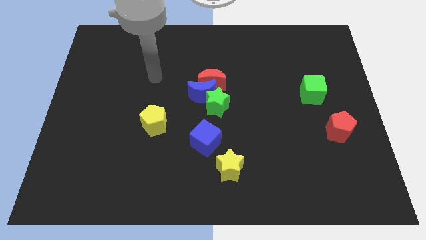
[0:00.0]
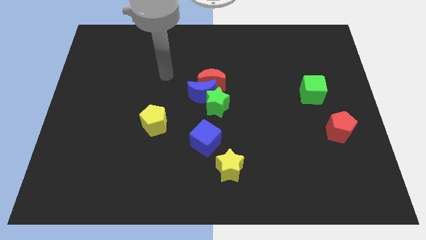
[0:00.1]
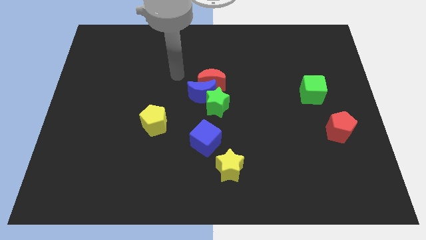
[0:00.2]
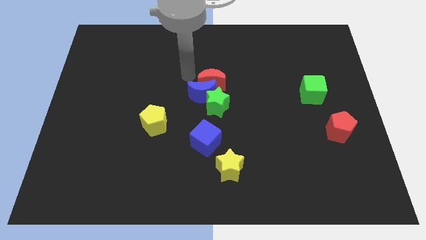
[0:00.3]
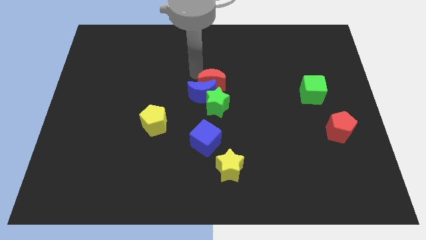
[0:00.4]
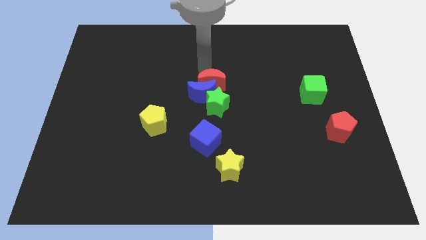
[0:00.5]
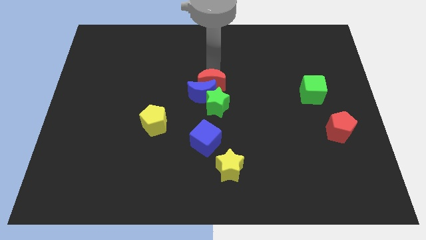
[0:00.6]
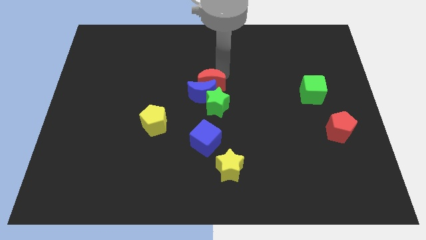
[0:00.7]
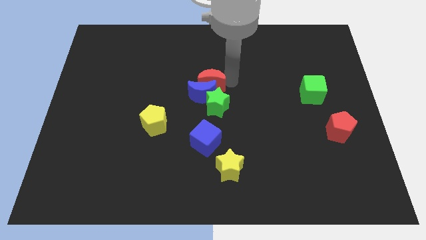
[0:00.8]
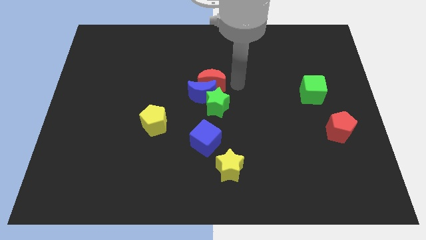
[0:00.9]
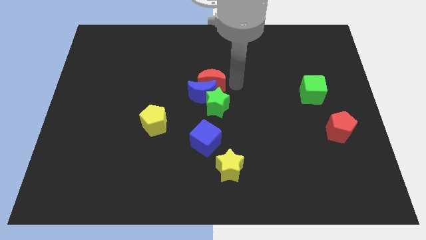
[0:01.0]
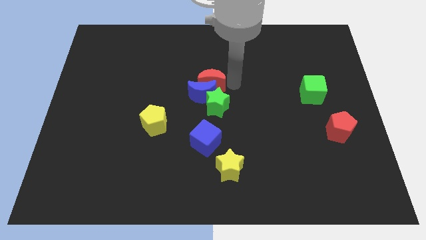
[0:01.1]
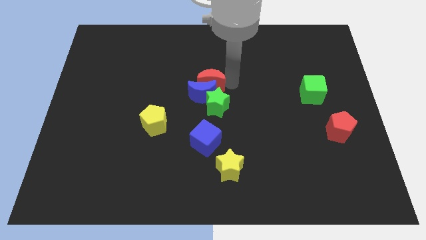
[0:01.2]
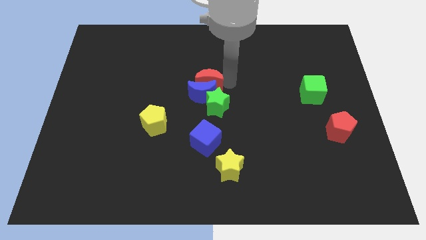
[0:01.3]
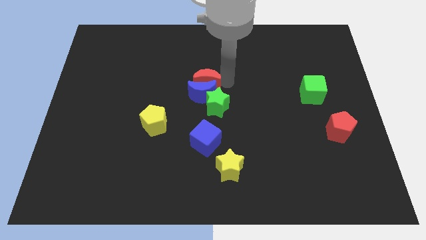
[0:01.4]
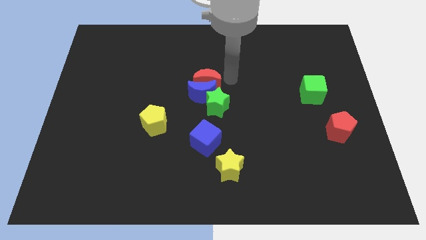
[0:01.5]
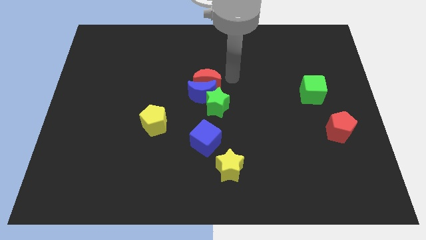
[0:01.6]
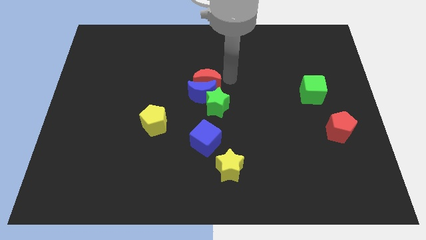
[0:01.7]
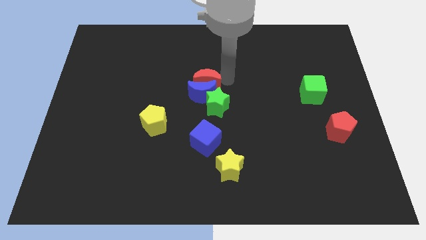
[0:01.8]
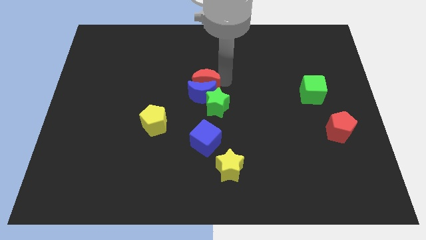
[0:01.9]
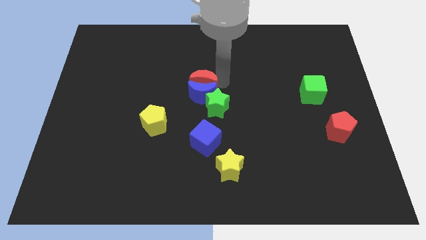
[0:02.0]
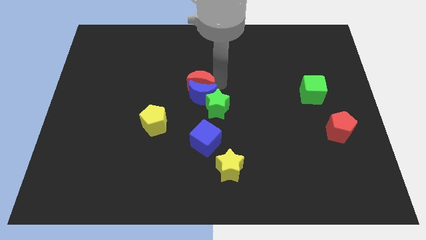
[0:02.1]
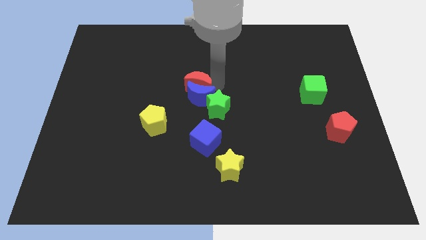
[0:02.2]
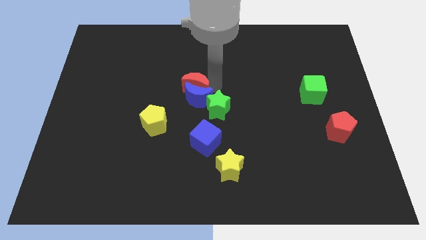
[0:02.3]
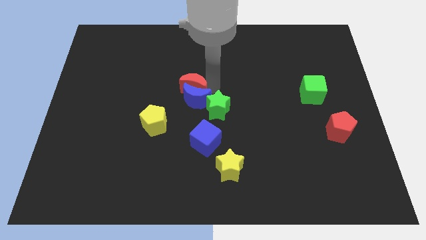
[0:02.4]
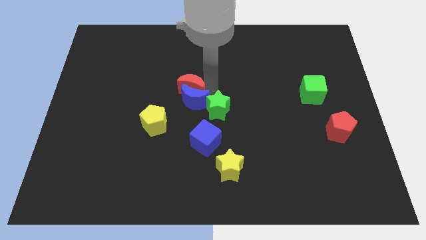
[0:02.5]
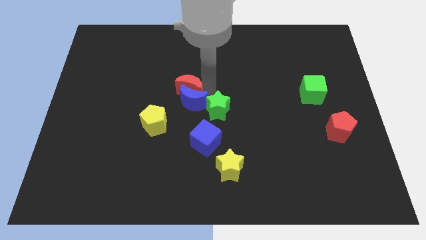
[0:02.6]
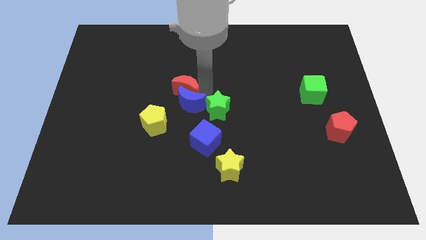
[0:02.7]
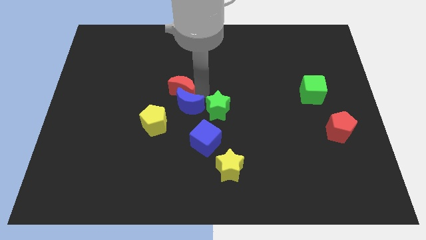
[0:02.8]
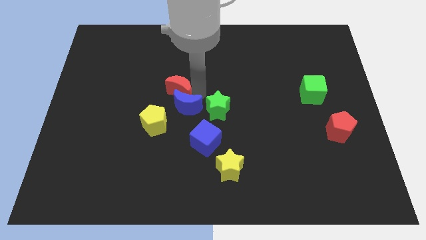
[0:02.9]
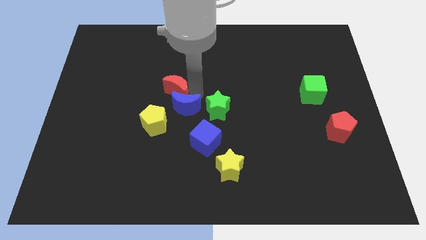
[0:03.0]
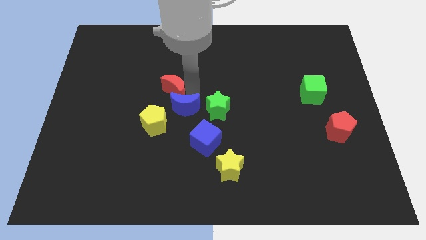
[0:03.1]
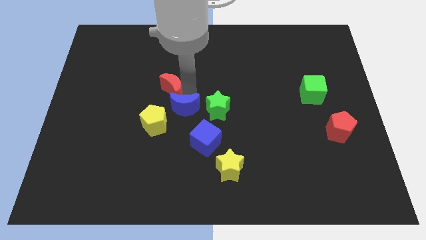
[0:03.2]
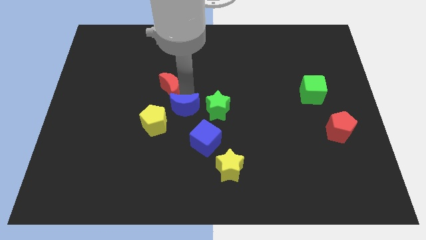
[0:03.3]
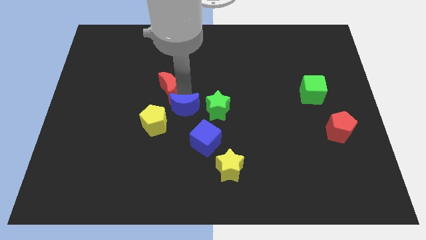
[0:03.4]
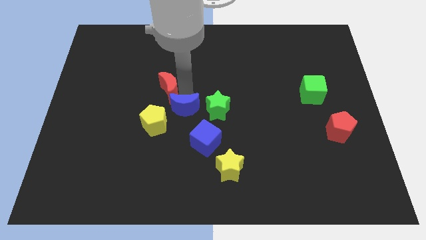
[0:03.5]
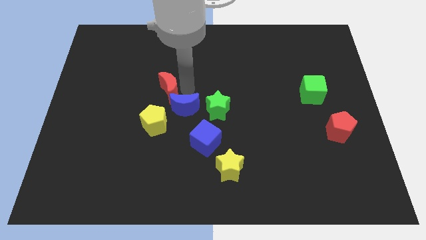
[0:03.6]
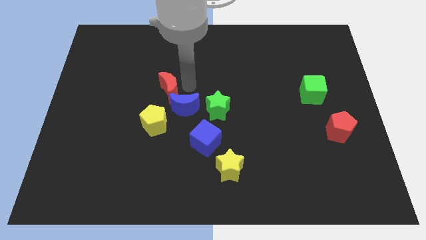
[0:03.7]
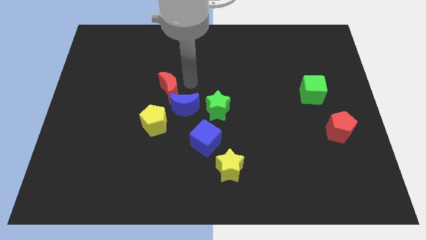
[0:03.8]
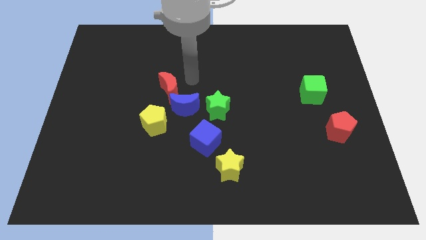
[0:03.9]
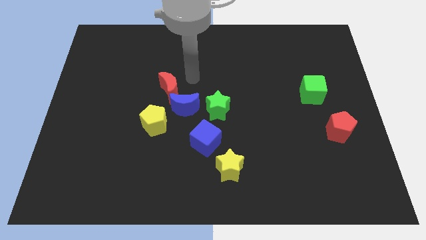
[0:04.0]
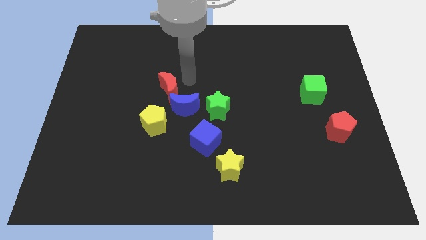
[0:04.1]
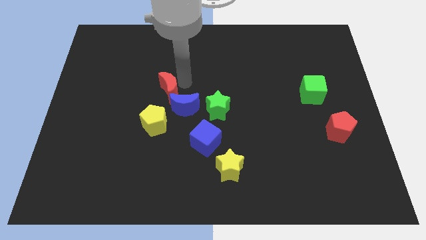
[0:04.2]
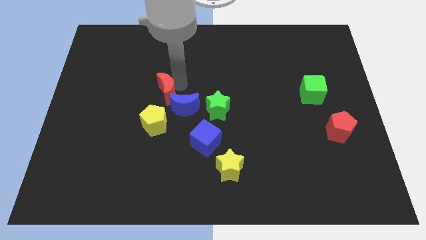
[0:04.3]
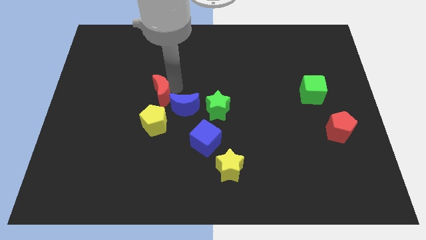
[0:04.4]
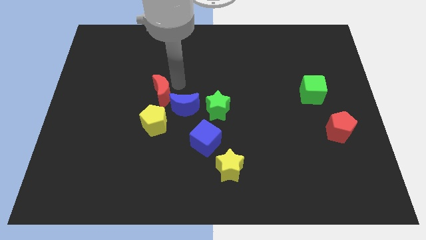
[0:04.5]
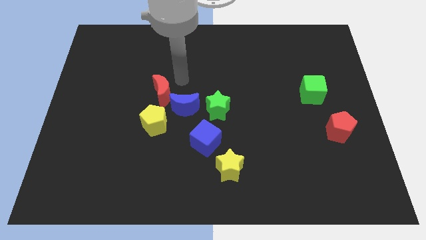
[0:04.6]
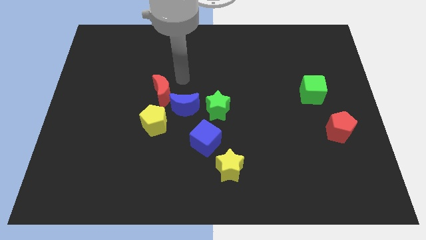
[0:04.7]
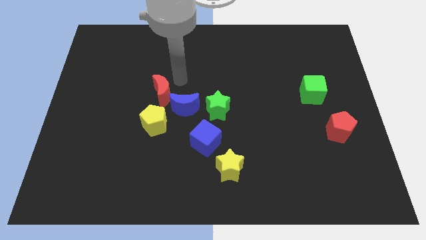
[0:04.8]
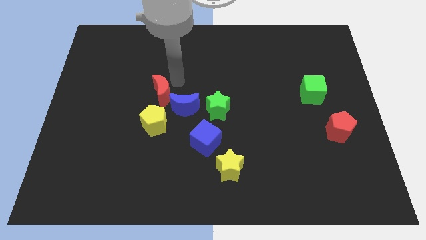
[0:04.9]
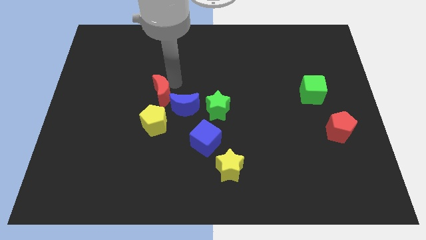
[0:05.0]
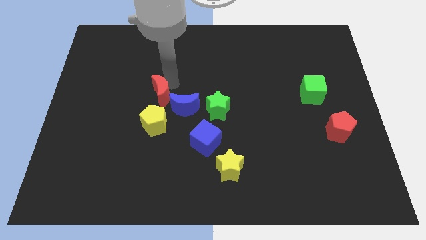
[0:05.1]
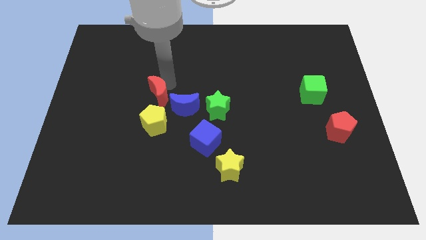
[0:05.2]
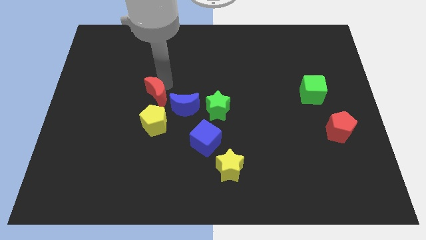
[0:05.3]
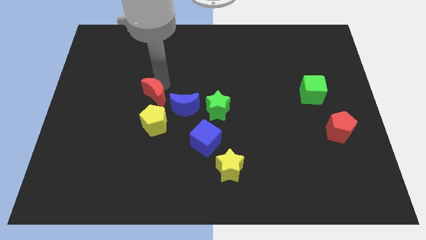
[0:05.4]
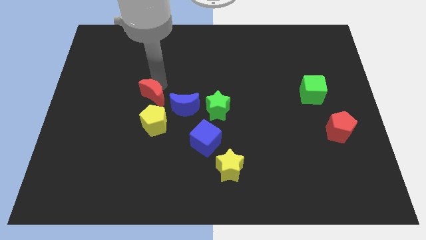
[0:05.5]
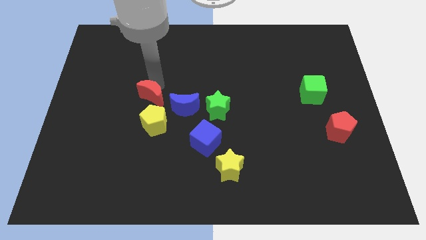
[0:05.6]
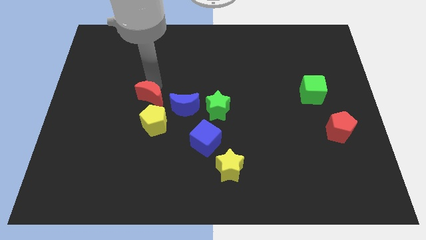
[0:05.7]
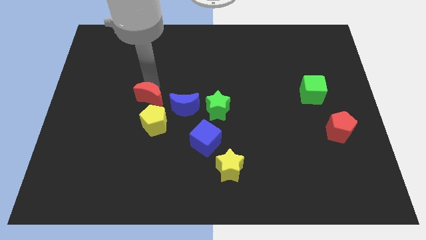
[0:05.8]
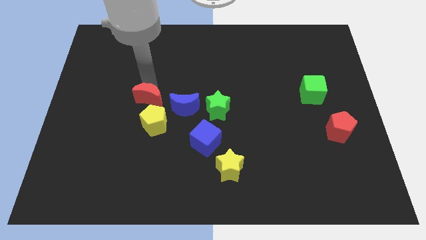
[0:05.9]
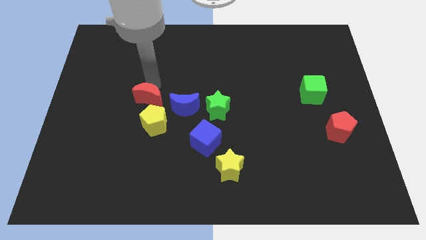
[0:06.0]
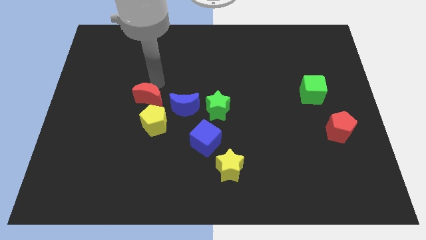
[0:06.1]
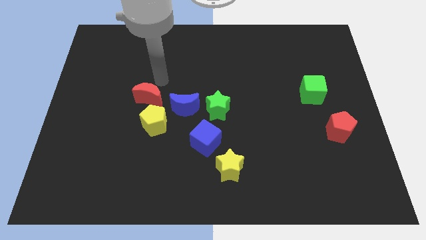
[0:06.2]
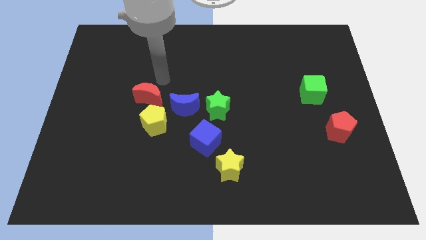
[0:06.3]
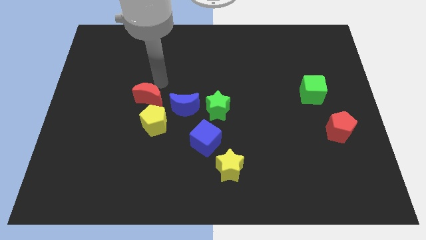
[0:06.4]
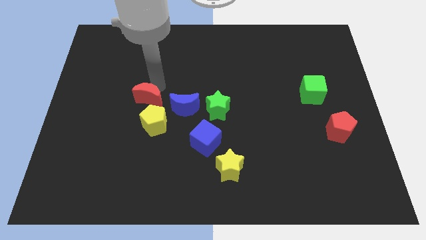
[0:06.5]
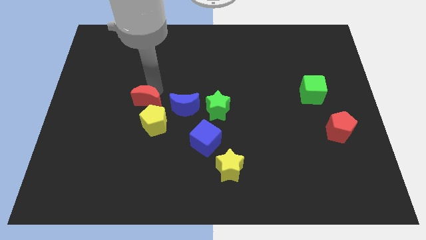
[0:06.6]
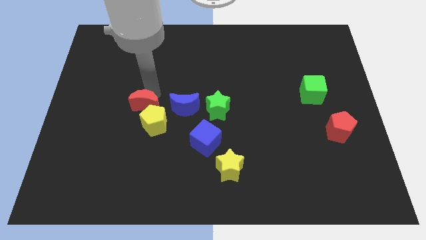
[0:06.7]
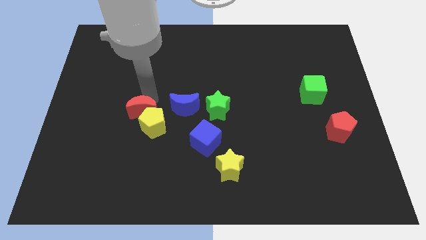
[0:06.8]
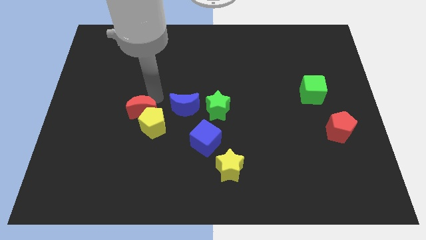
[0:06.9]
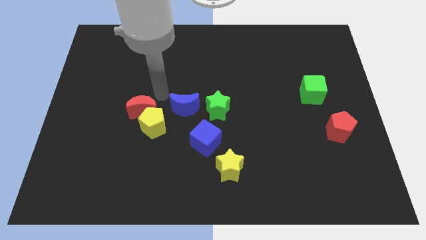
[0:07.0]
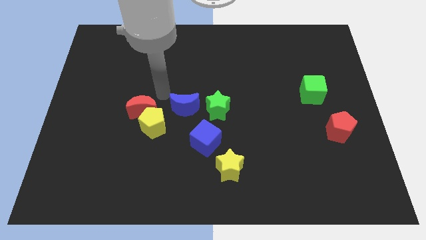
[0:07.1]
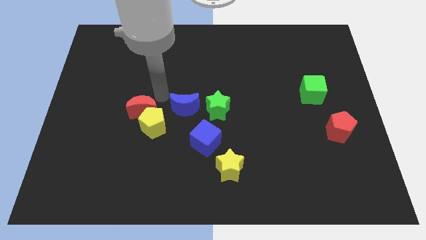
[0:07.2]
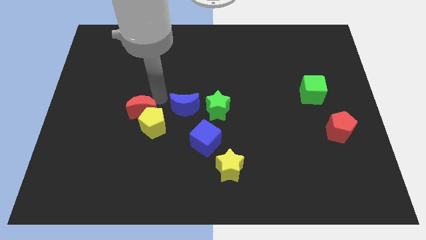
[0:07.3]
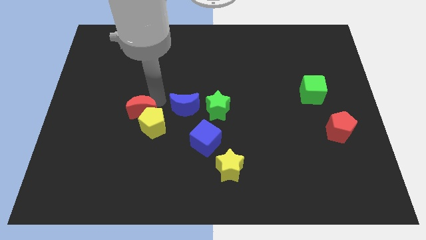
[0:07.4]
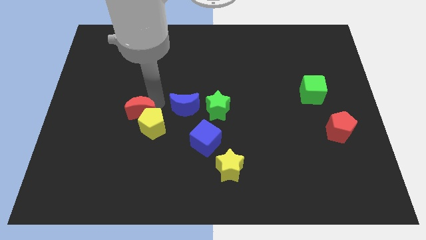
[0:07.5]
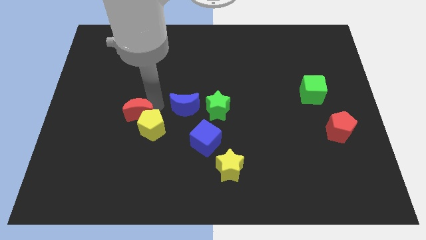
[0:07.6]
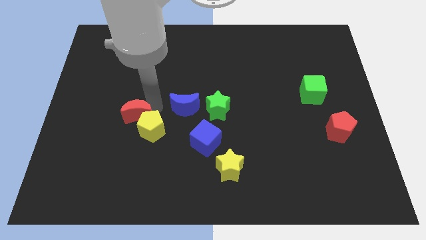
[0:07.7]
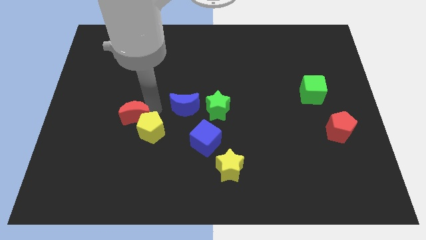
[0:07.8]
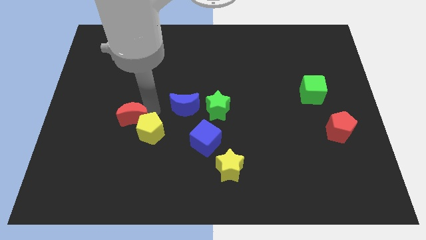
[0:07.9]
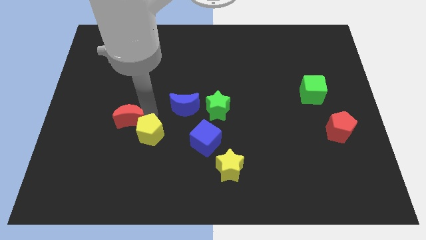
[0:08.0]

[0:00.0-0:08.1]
push the red moon down and left diagonally
